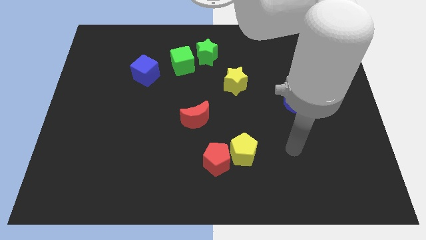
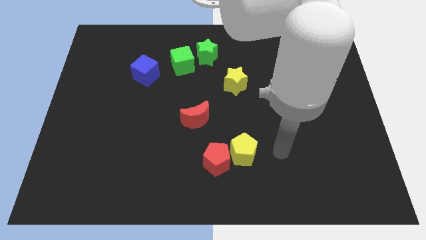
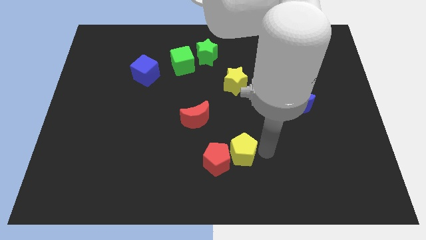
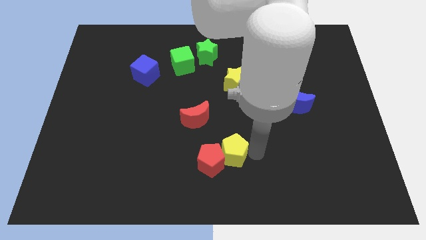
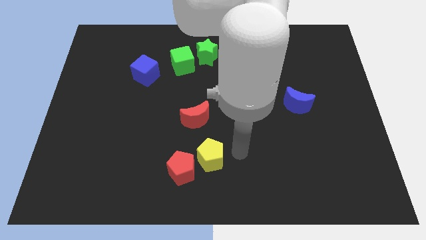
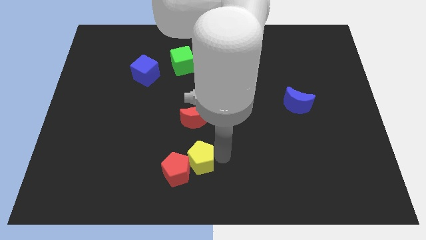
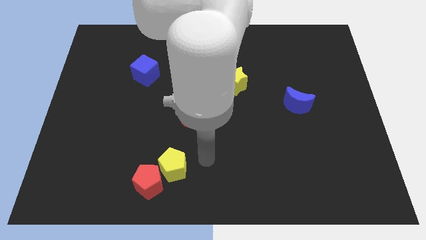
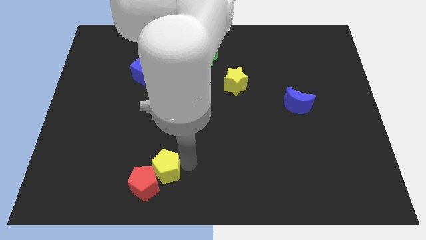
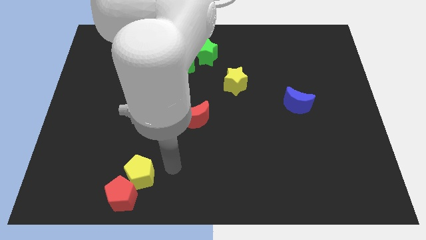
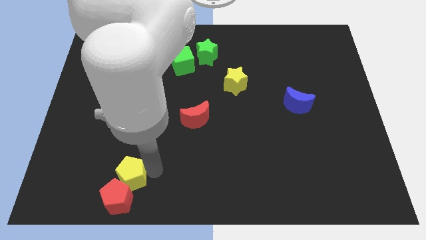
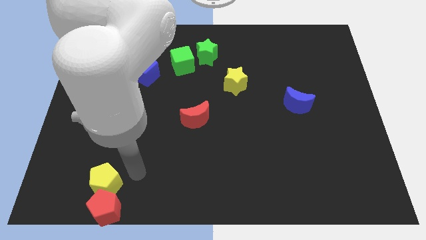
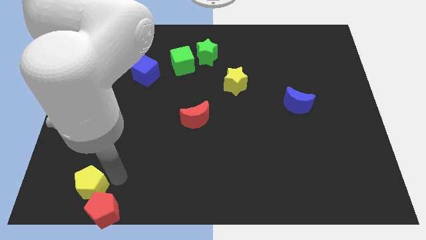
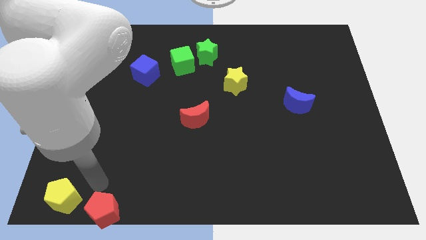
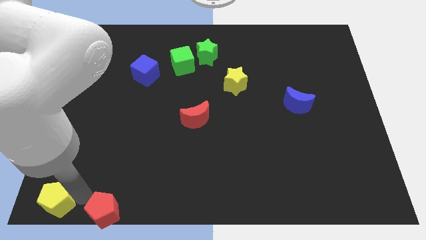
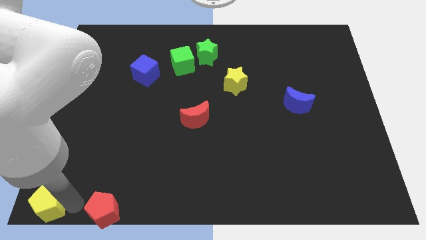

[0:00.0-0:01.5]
move the red pentagon away from the yellow pentagon

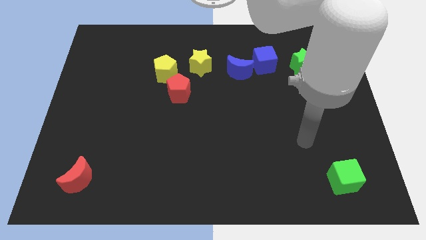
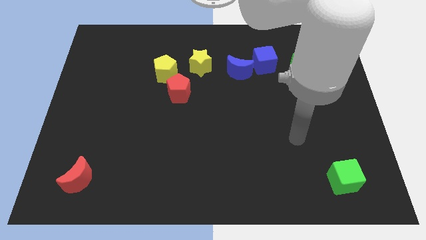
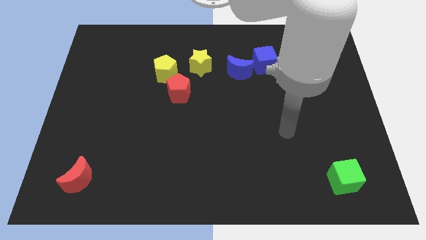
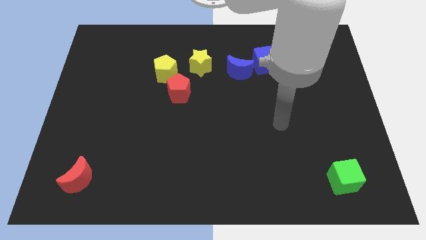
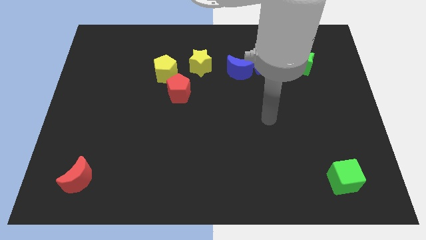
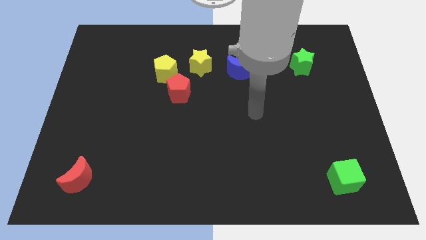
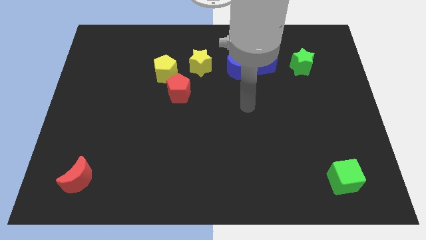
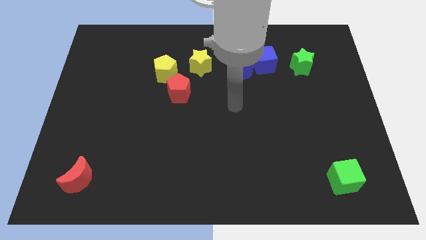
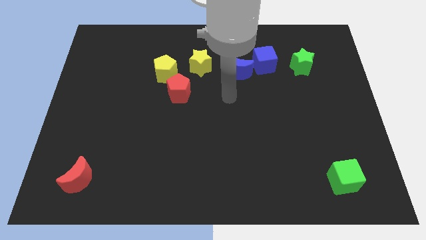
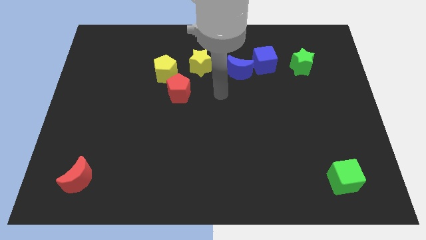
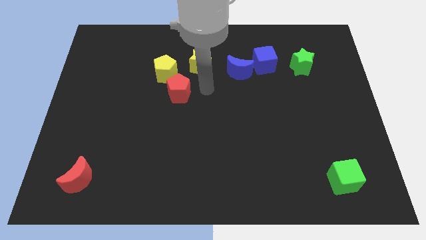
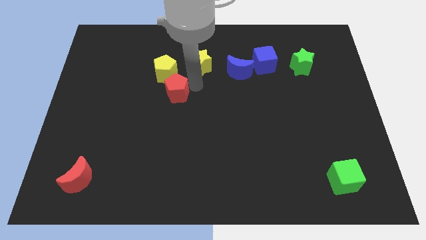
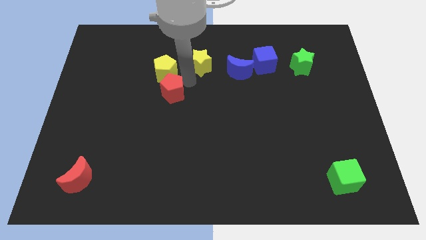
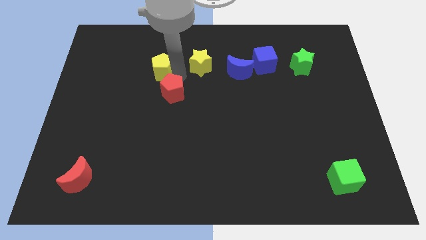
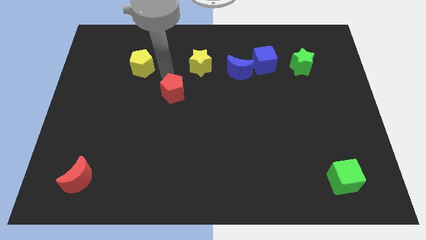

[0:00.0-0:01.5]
separate the red pentagon from the yellow pentagon

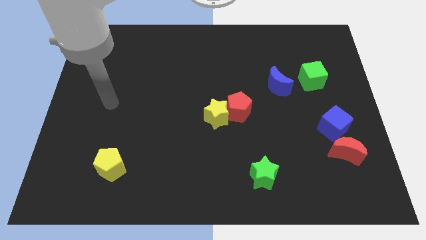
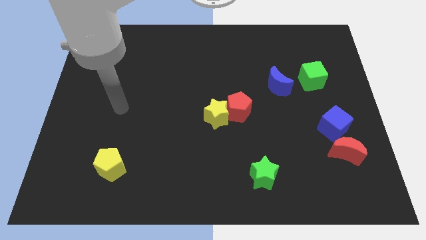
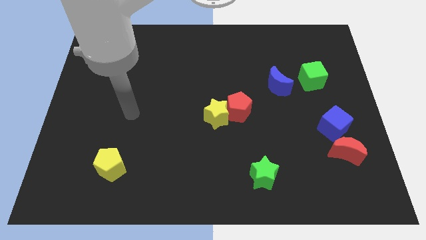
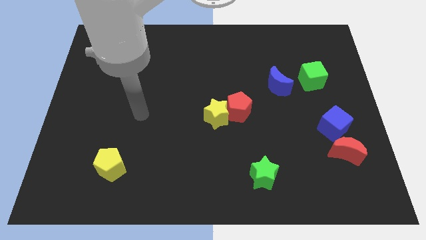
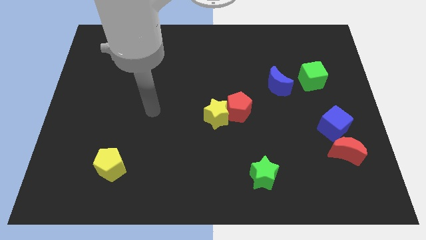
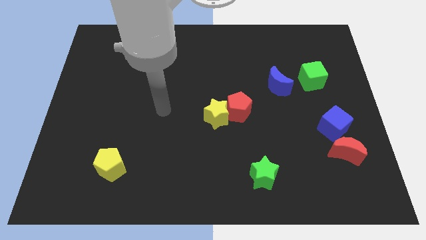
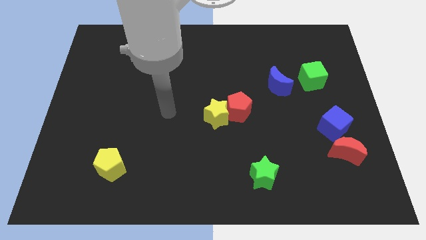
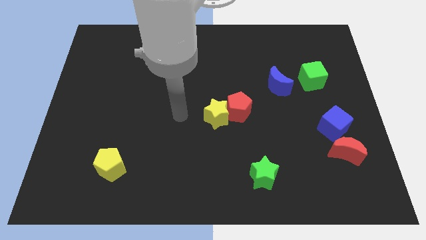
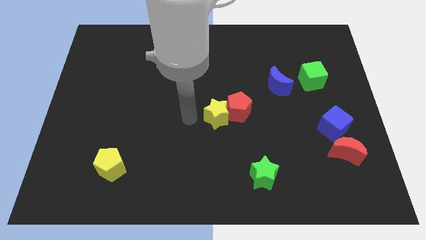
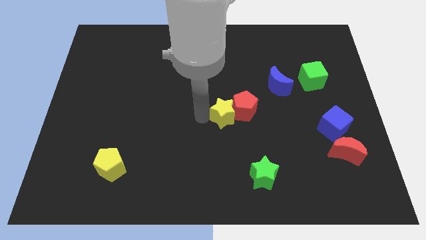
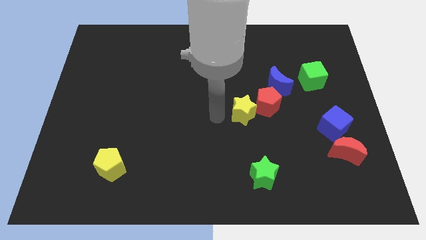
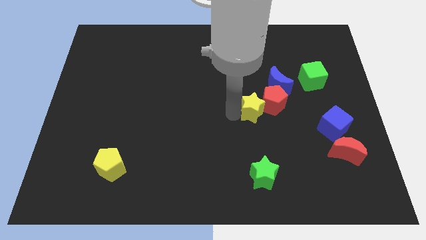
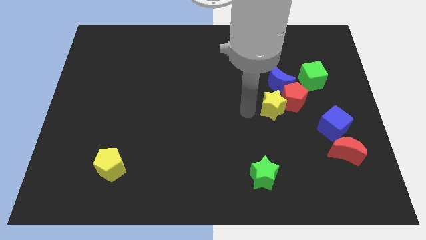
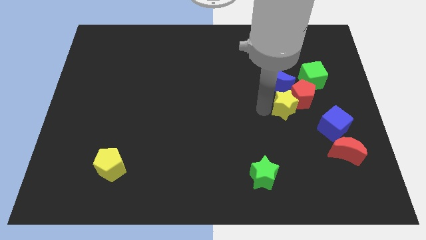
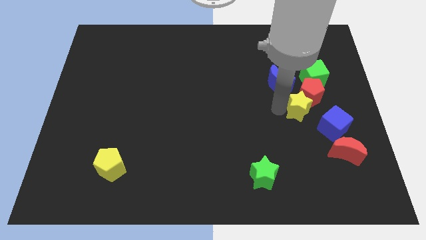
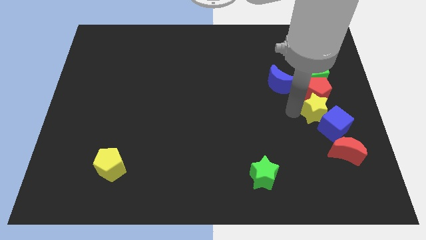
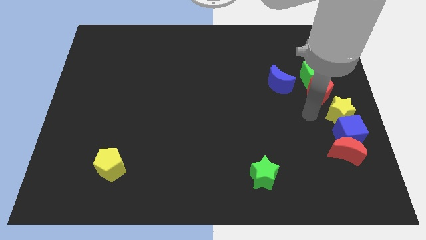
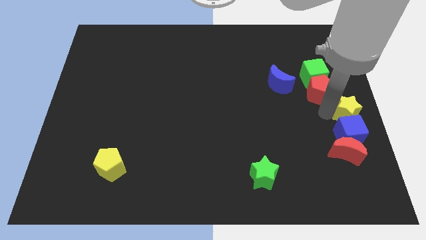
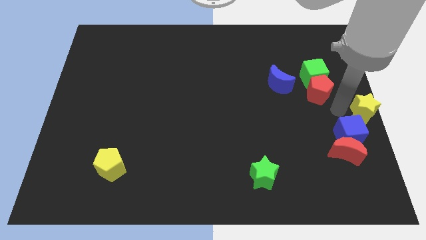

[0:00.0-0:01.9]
pull the red pentagon apart from the yellow star

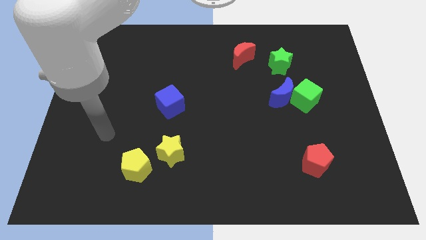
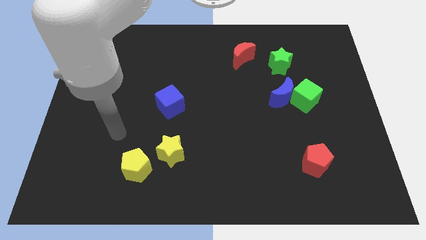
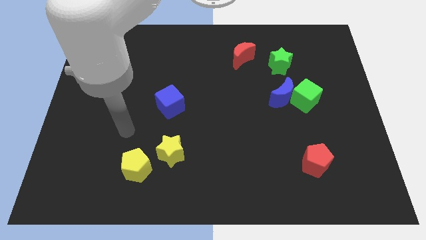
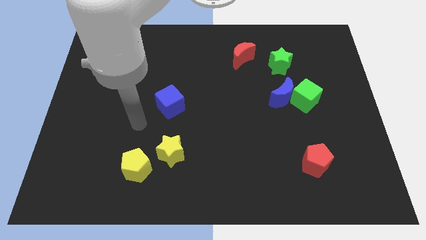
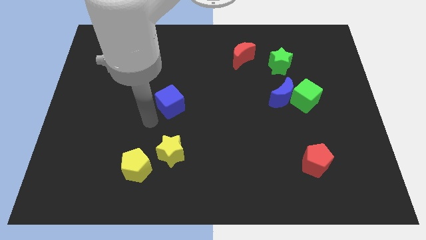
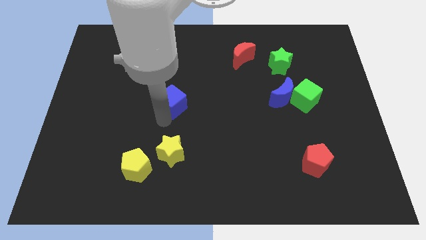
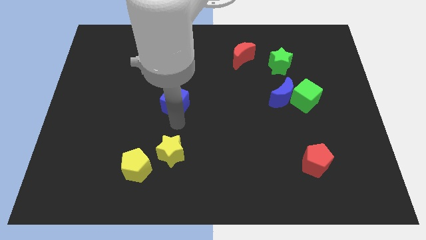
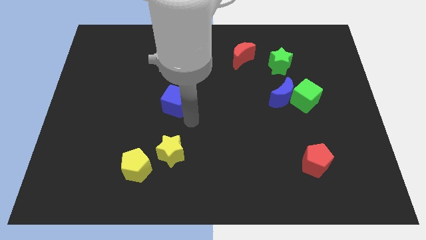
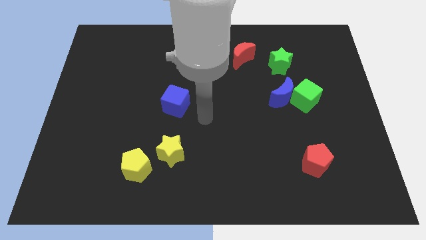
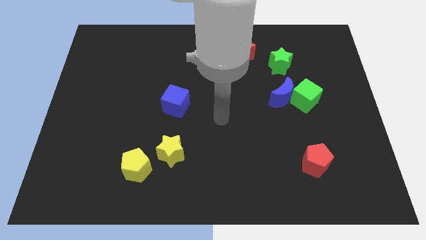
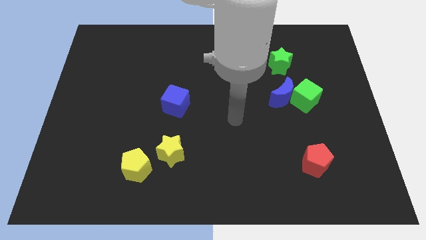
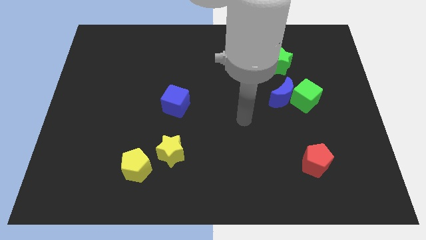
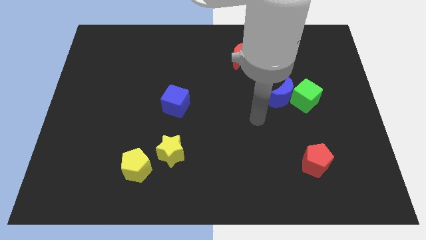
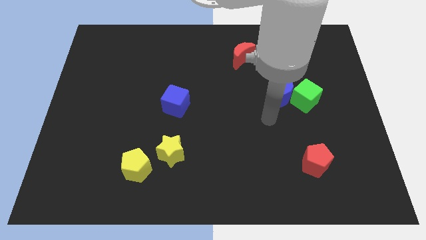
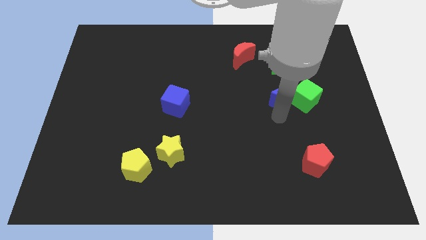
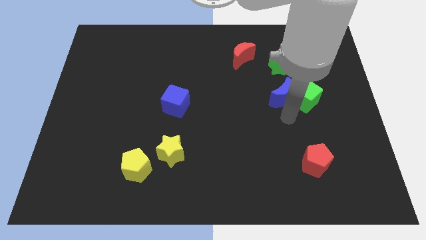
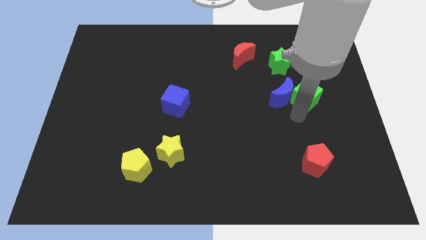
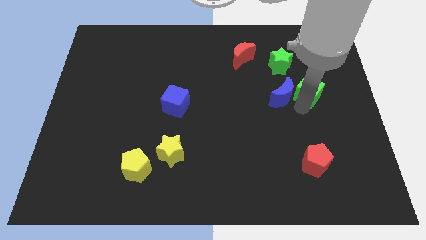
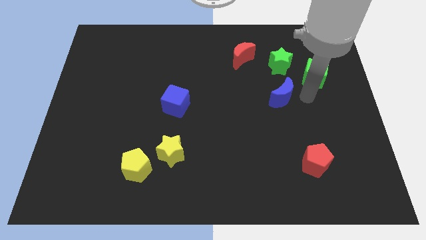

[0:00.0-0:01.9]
move the blue moon away from the green cube

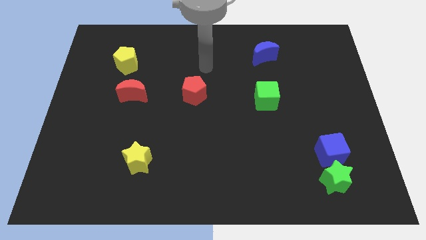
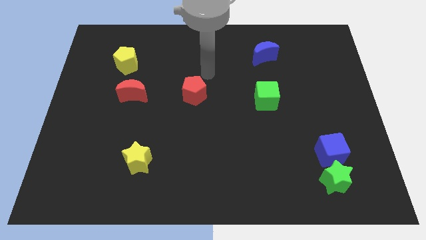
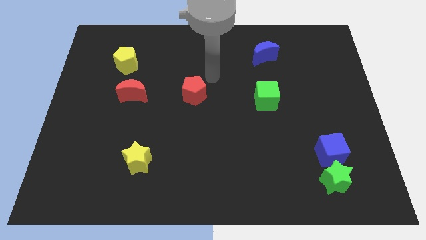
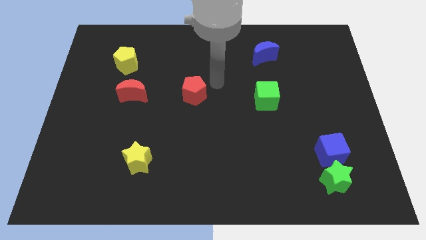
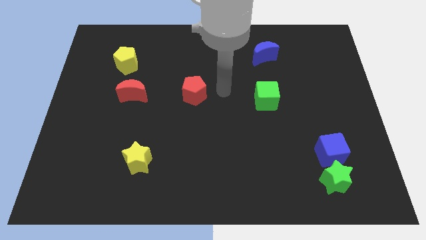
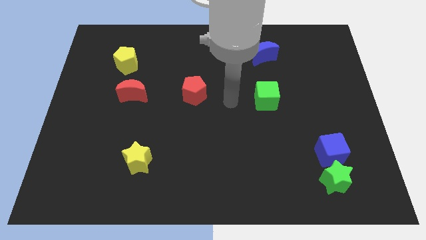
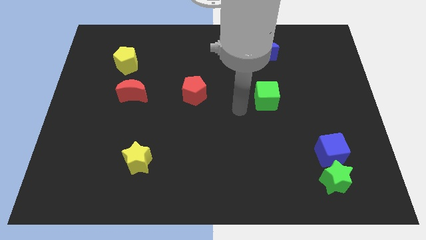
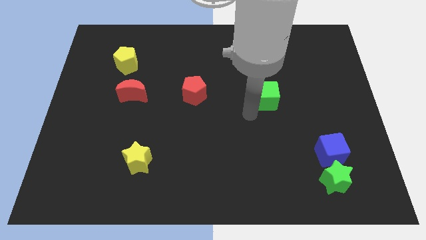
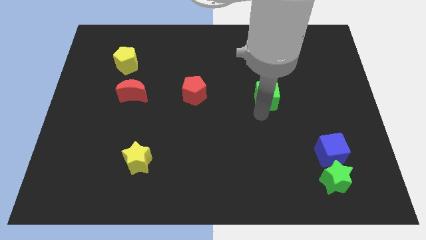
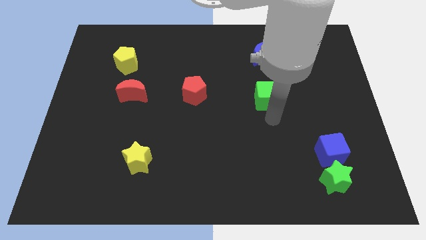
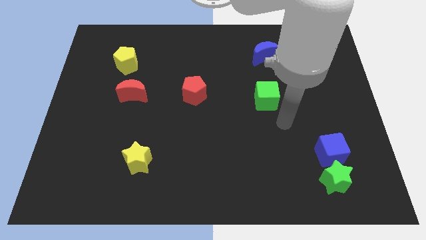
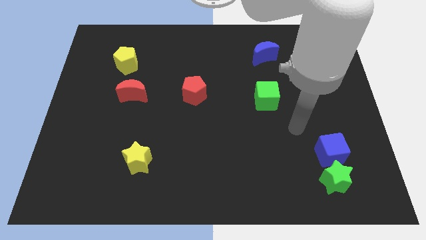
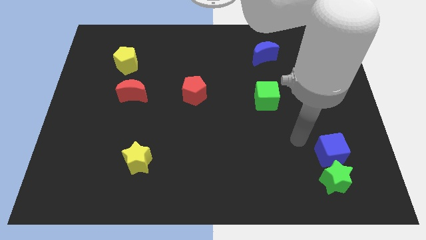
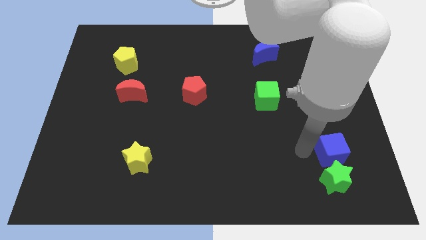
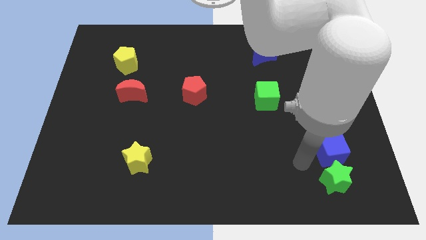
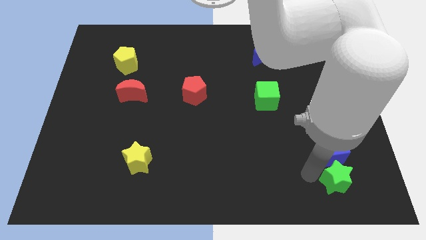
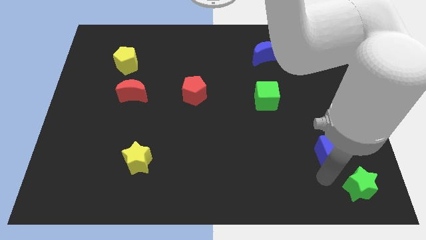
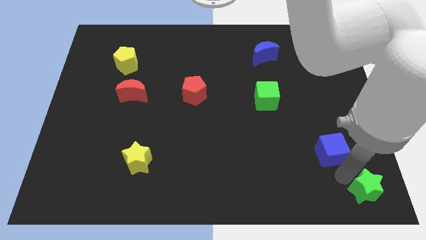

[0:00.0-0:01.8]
move the blue cube away from the green star

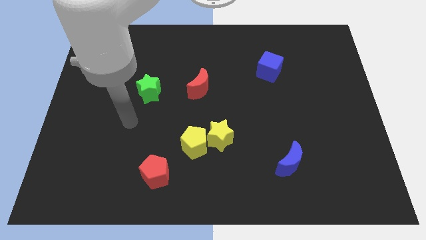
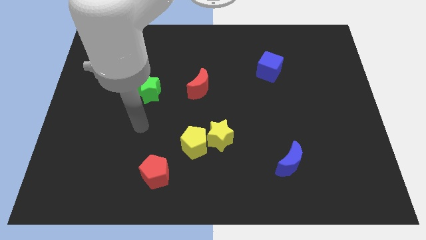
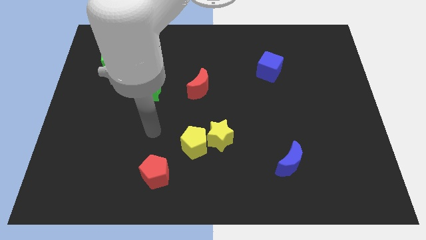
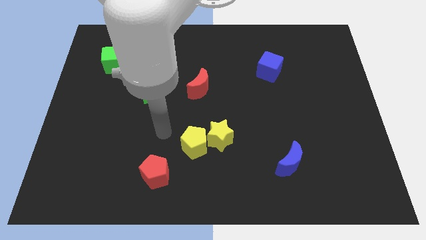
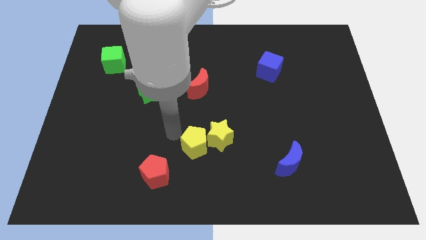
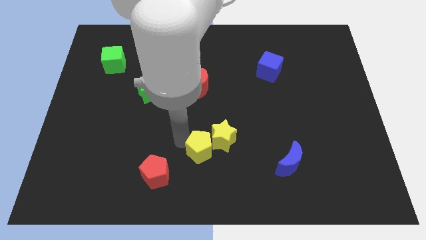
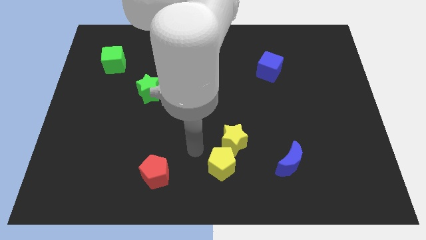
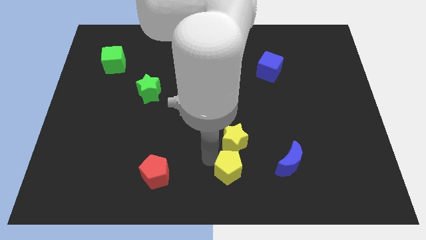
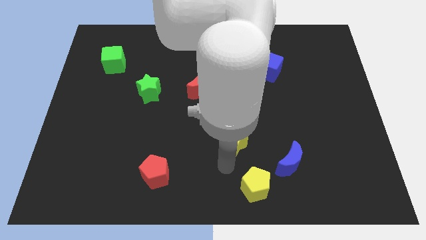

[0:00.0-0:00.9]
separate the yellow star from the yellow pentagon
